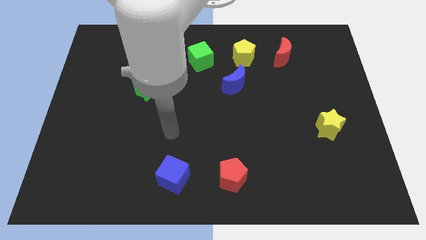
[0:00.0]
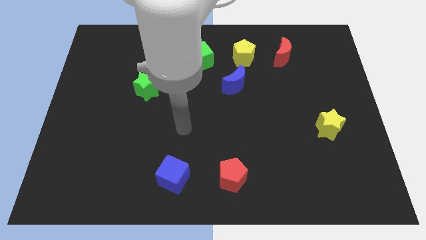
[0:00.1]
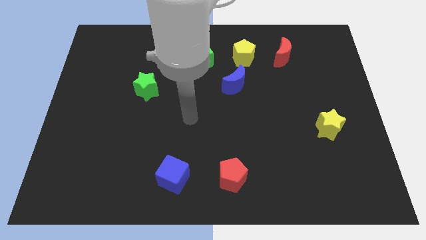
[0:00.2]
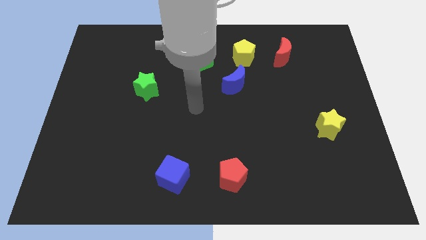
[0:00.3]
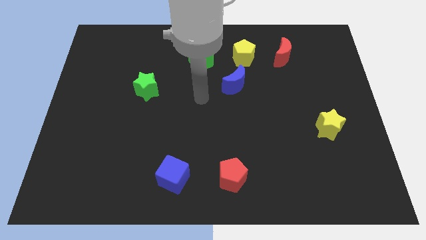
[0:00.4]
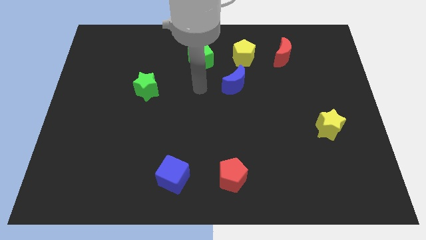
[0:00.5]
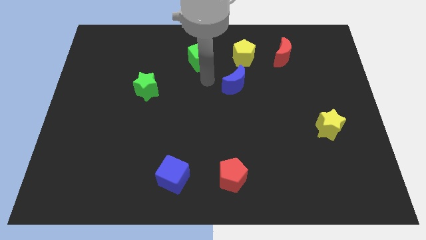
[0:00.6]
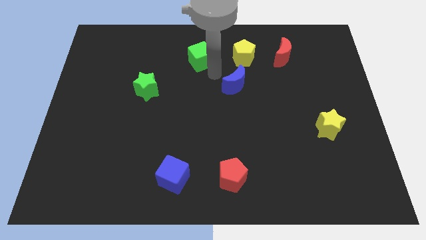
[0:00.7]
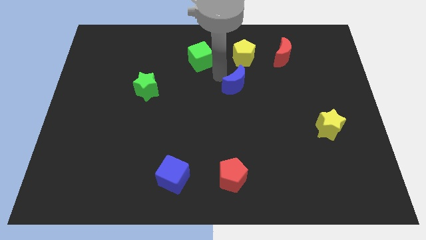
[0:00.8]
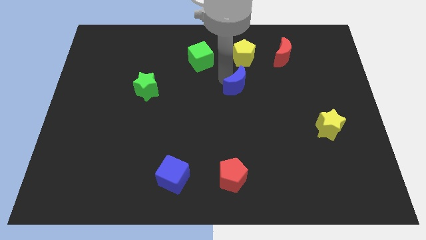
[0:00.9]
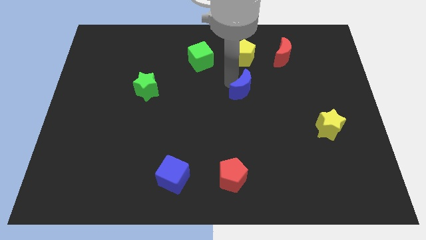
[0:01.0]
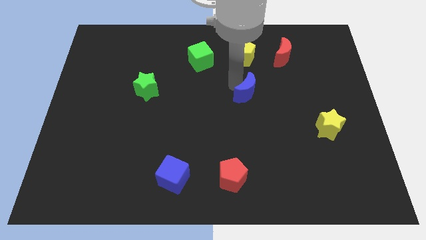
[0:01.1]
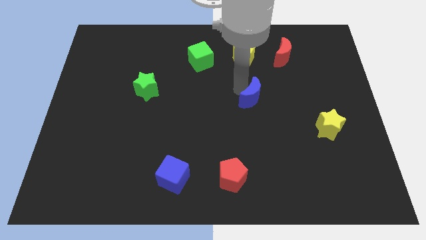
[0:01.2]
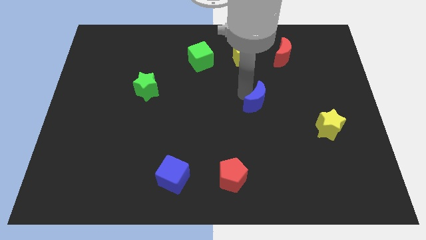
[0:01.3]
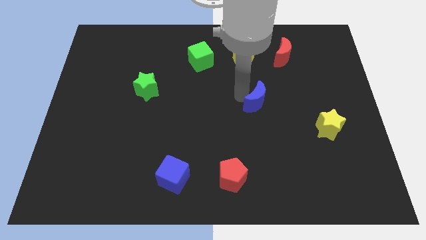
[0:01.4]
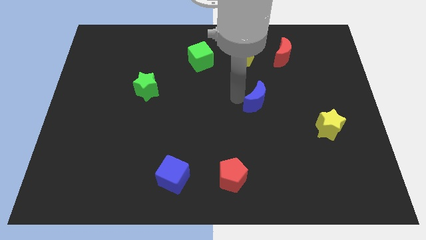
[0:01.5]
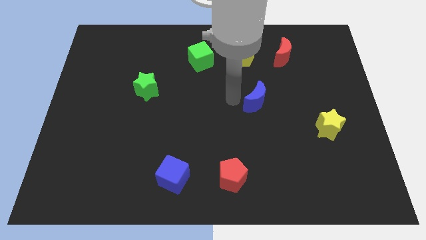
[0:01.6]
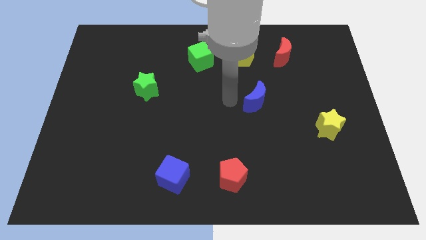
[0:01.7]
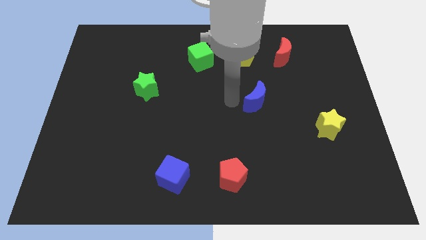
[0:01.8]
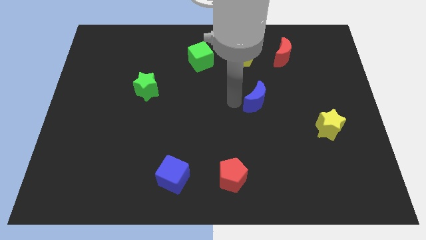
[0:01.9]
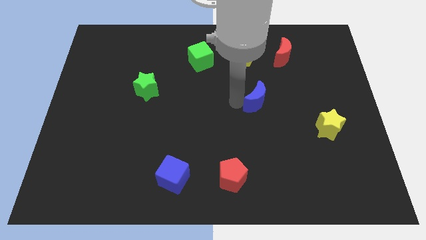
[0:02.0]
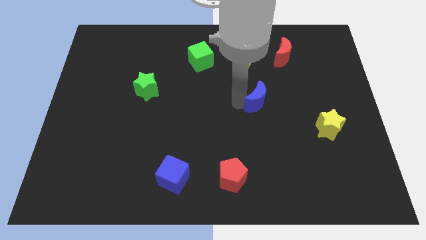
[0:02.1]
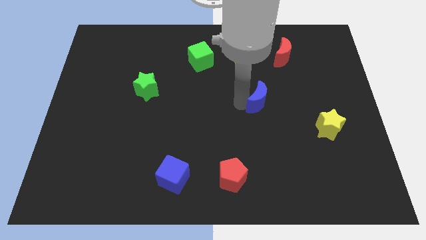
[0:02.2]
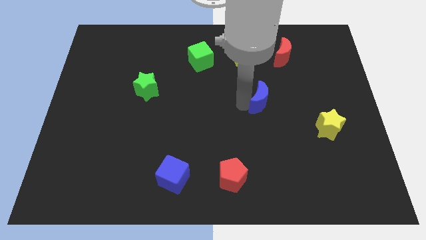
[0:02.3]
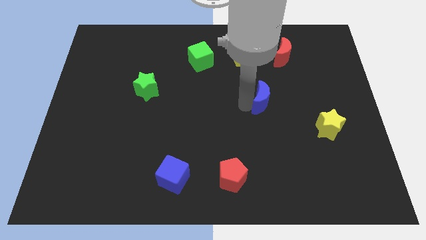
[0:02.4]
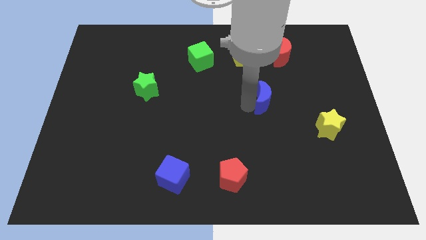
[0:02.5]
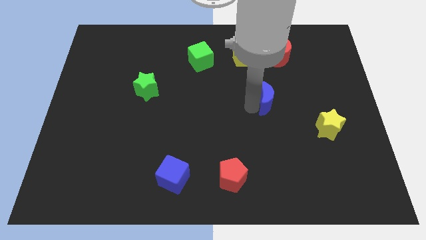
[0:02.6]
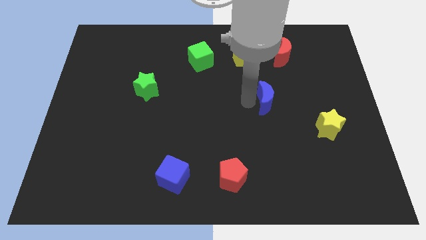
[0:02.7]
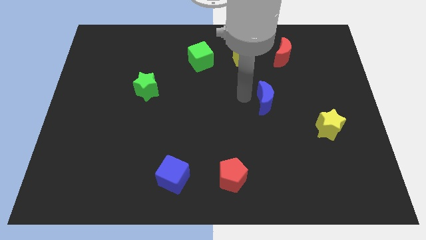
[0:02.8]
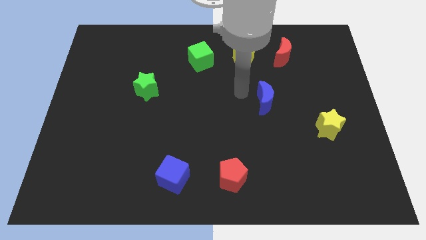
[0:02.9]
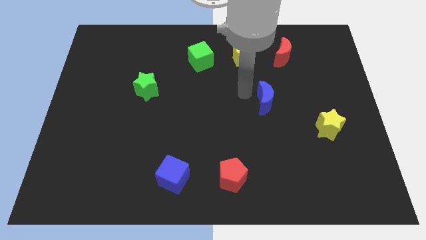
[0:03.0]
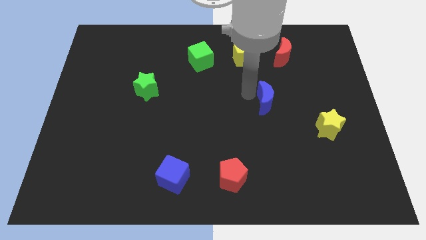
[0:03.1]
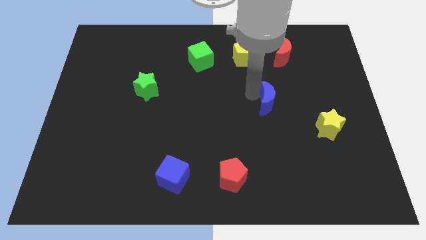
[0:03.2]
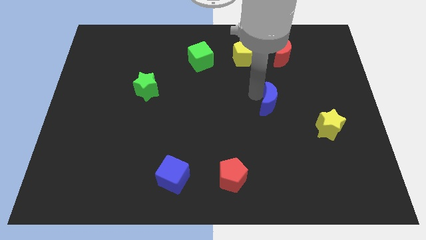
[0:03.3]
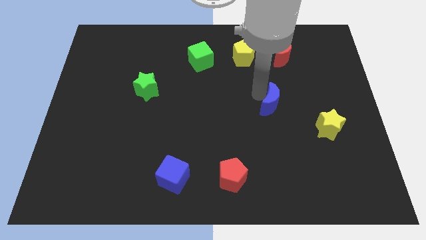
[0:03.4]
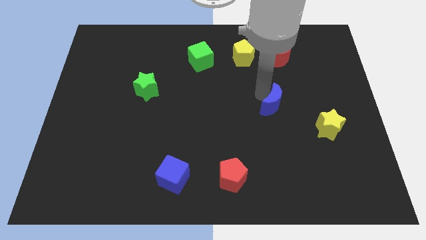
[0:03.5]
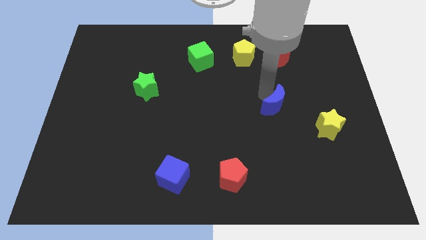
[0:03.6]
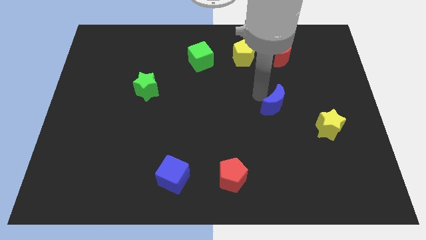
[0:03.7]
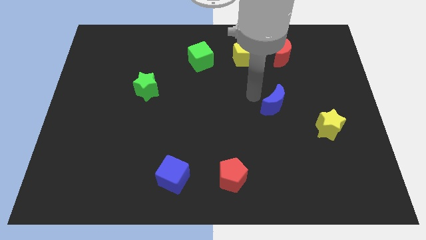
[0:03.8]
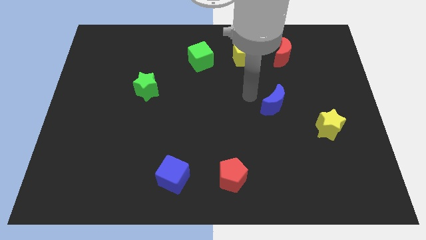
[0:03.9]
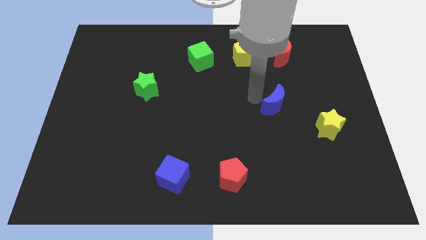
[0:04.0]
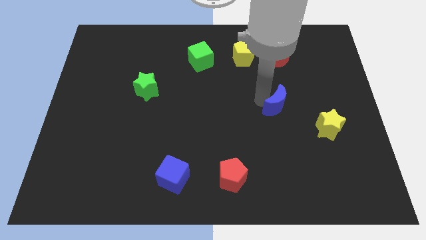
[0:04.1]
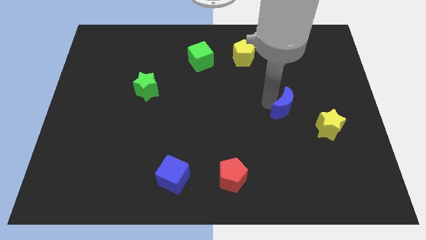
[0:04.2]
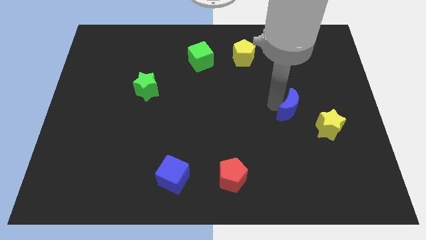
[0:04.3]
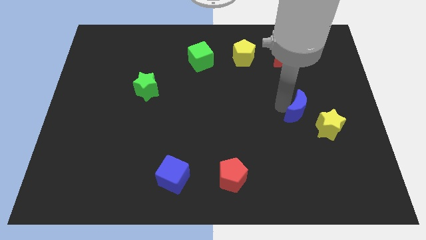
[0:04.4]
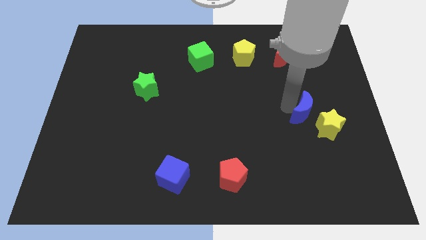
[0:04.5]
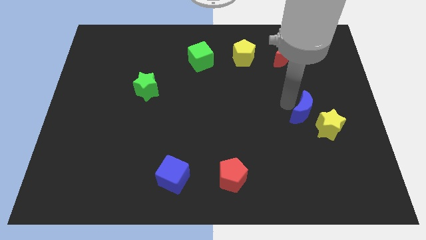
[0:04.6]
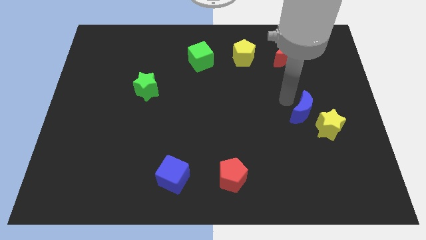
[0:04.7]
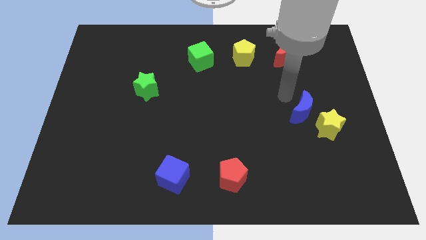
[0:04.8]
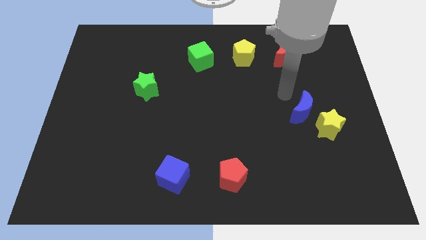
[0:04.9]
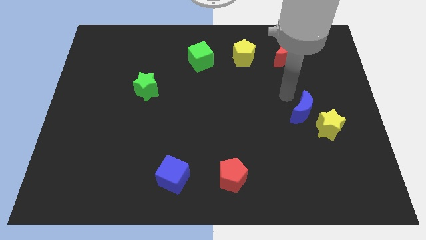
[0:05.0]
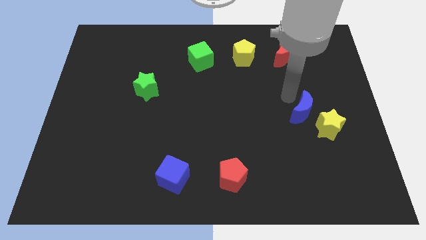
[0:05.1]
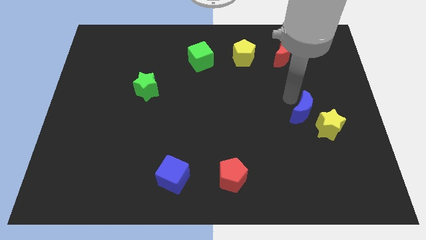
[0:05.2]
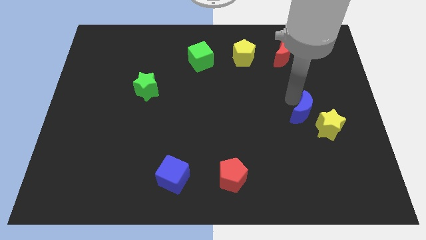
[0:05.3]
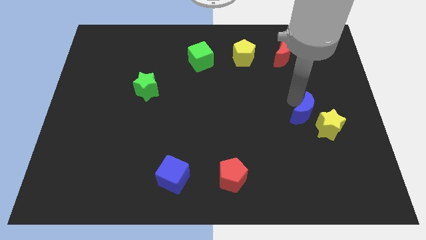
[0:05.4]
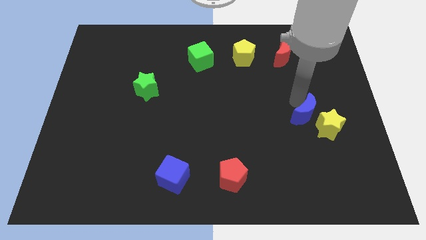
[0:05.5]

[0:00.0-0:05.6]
slide the blue moon towards the yellow star
